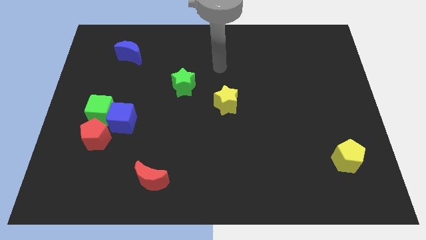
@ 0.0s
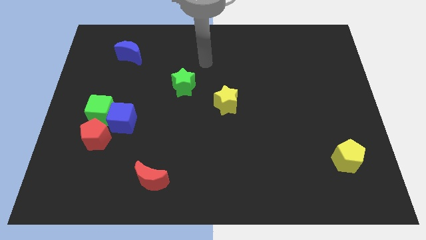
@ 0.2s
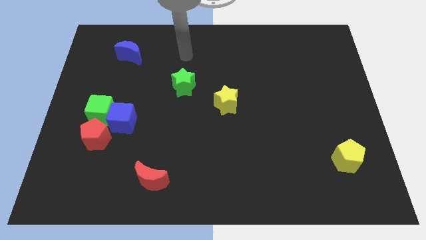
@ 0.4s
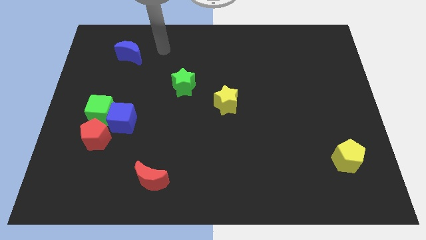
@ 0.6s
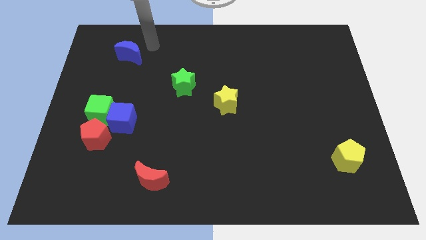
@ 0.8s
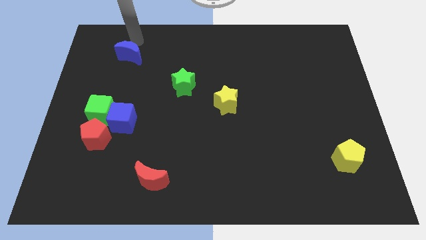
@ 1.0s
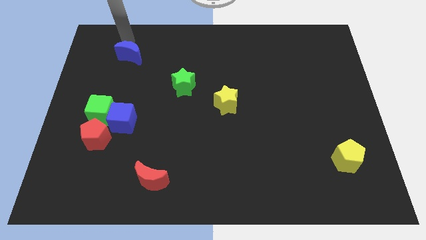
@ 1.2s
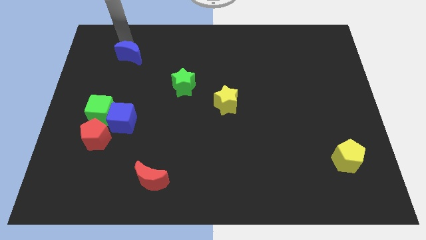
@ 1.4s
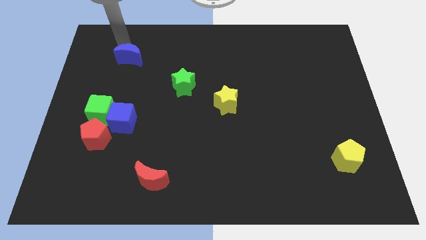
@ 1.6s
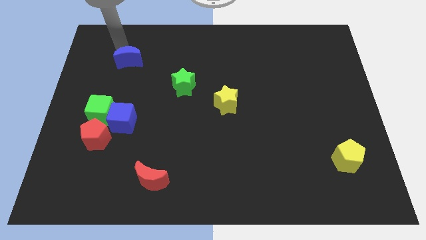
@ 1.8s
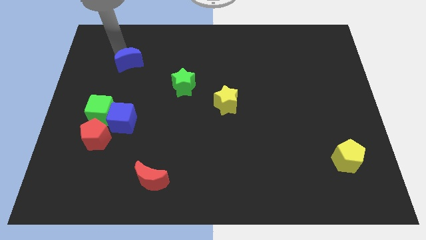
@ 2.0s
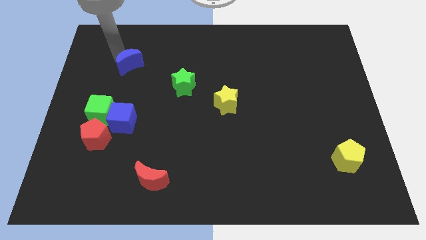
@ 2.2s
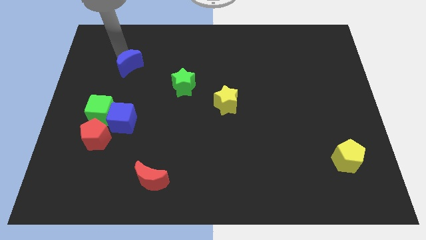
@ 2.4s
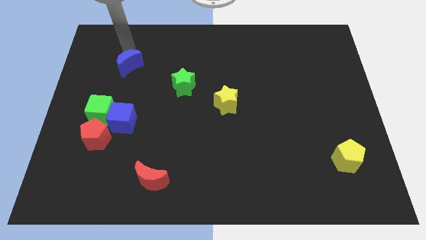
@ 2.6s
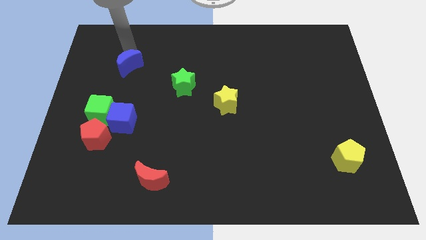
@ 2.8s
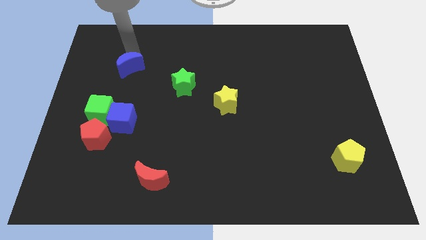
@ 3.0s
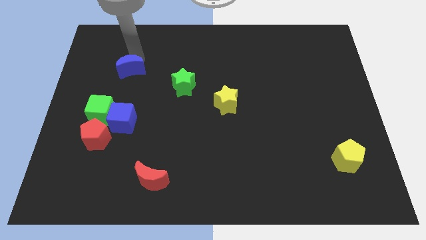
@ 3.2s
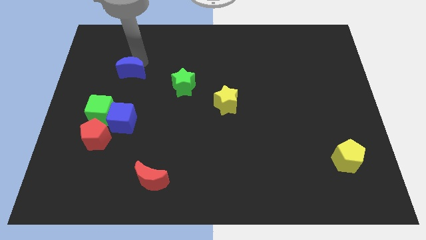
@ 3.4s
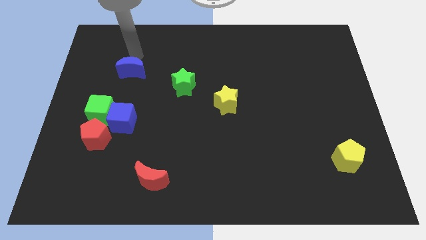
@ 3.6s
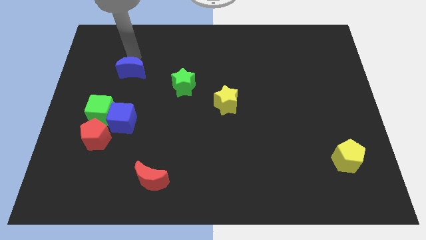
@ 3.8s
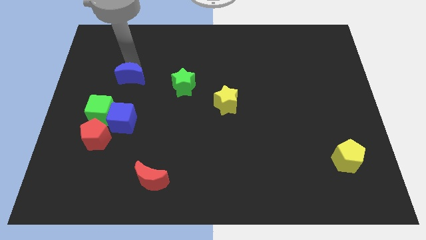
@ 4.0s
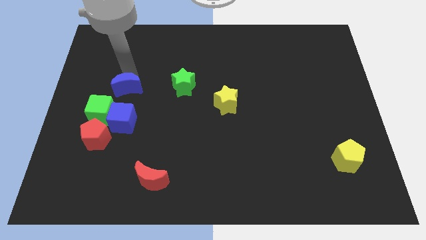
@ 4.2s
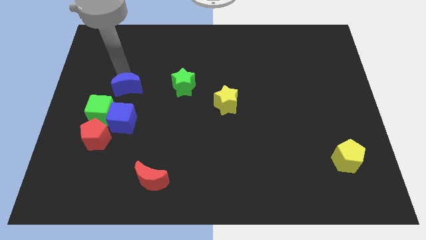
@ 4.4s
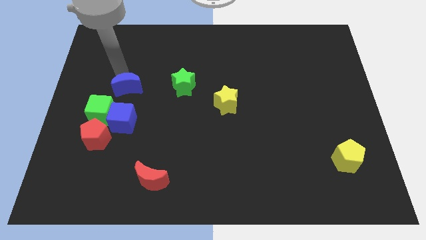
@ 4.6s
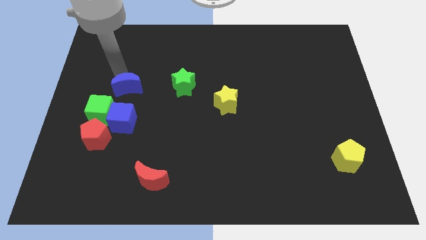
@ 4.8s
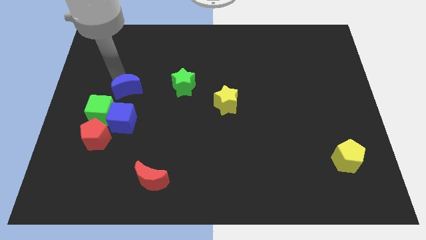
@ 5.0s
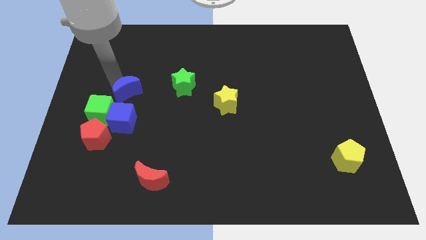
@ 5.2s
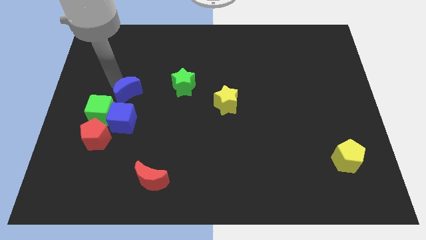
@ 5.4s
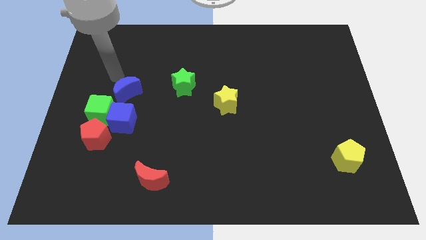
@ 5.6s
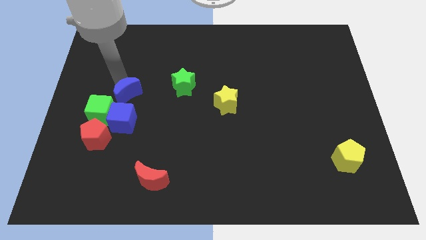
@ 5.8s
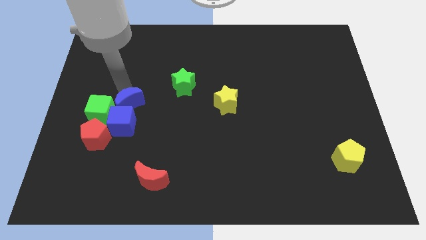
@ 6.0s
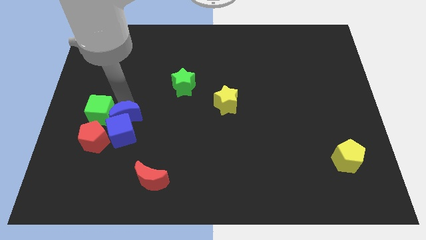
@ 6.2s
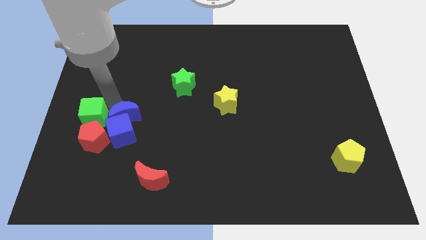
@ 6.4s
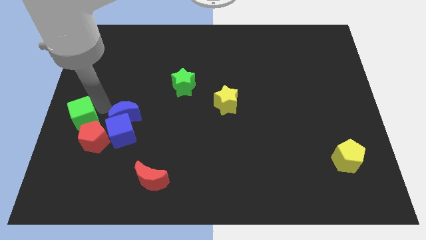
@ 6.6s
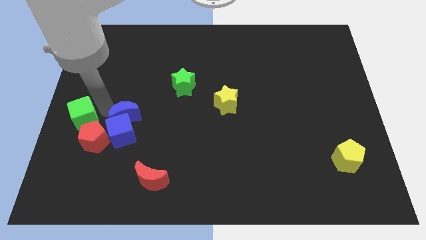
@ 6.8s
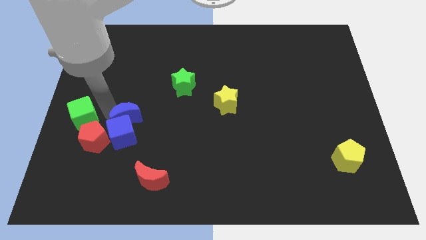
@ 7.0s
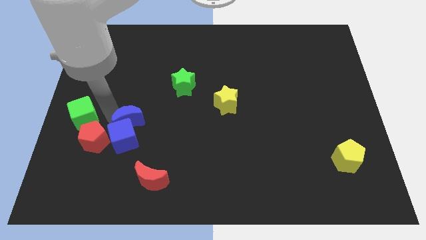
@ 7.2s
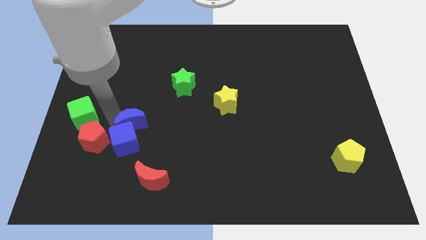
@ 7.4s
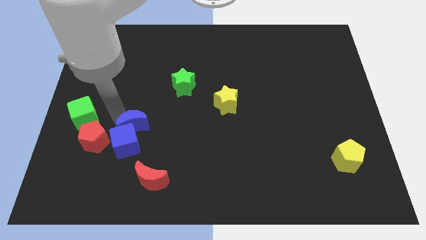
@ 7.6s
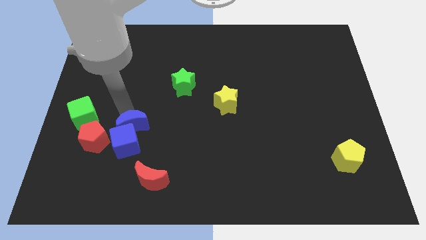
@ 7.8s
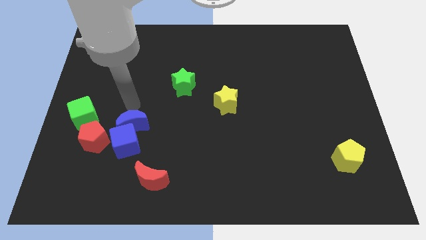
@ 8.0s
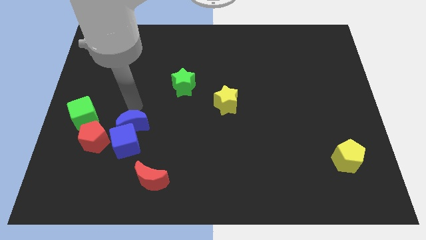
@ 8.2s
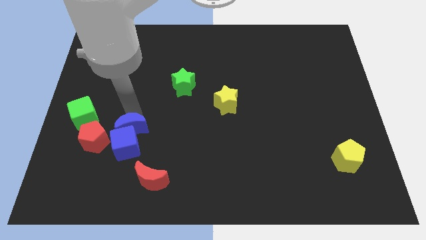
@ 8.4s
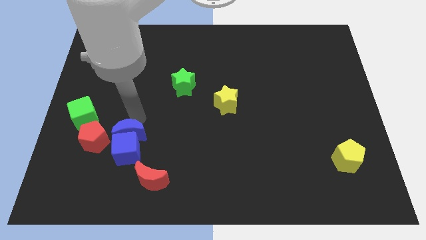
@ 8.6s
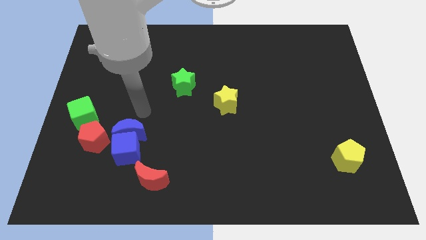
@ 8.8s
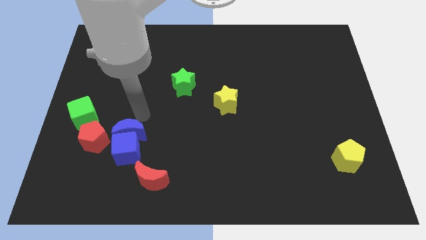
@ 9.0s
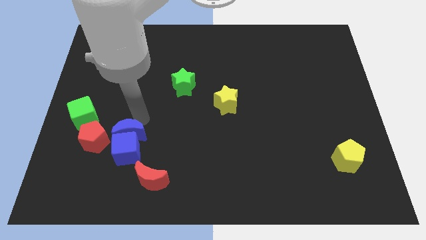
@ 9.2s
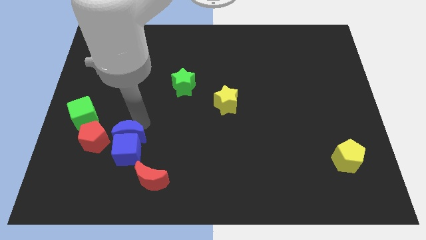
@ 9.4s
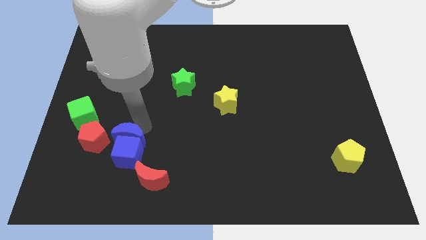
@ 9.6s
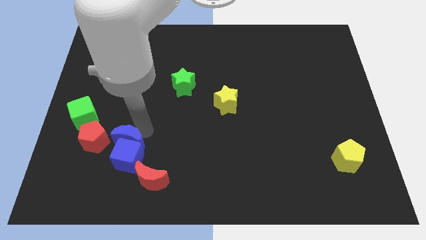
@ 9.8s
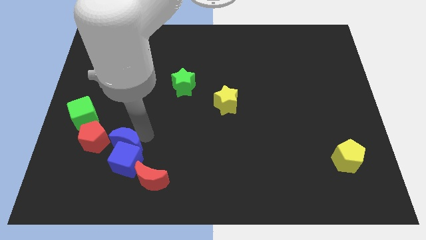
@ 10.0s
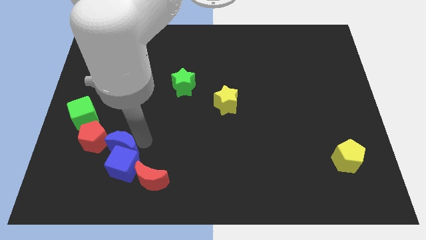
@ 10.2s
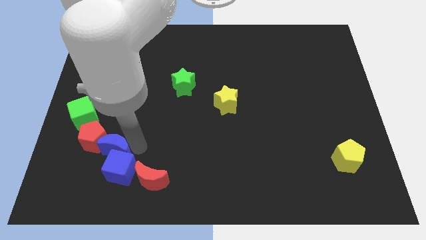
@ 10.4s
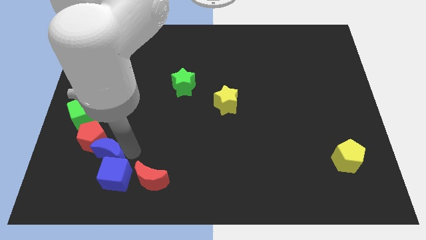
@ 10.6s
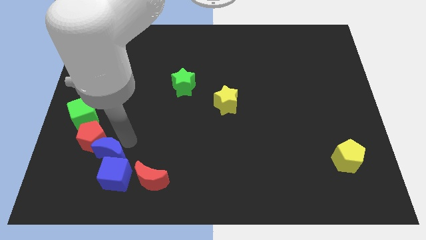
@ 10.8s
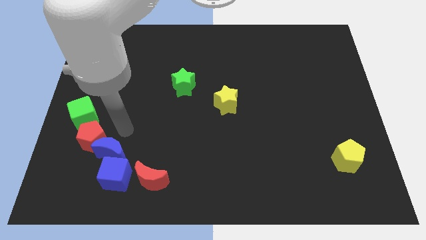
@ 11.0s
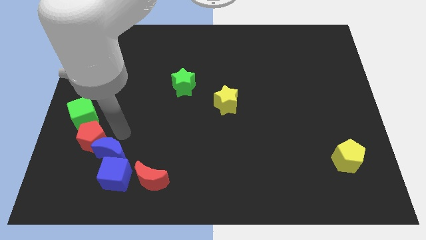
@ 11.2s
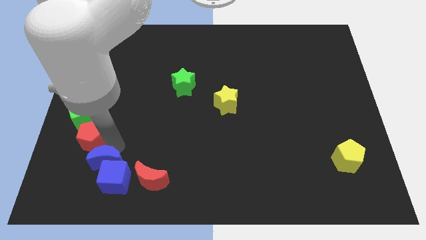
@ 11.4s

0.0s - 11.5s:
slide the blue moon just left of the red moon

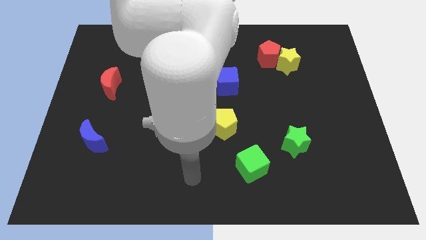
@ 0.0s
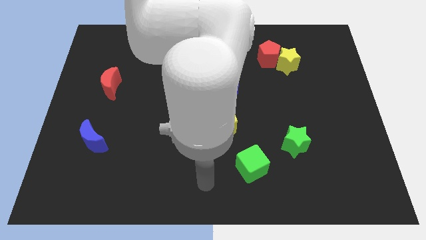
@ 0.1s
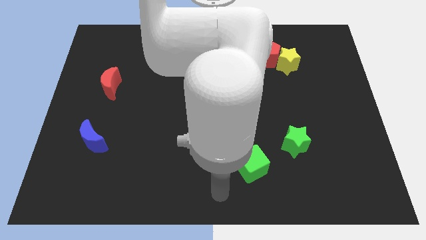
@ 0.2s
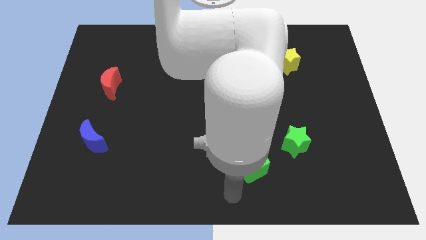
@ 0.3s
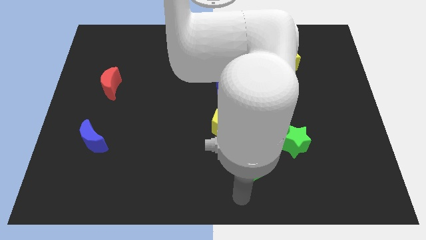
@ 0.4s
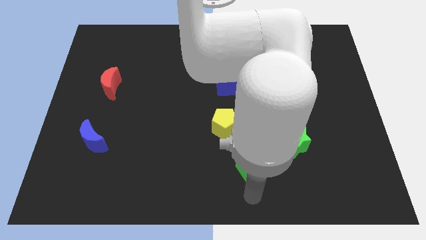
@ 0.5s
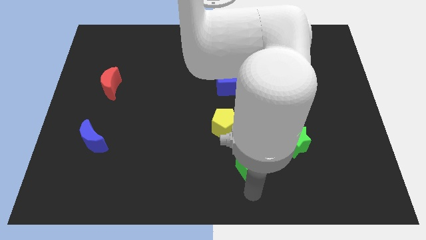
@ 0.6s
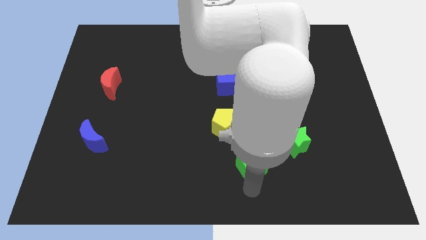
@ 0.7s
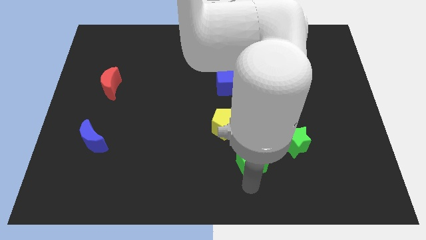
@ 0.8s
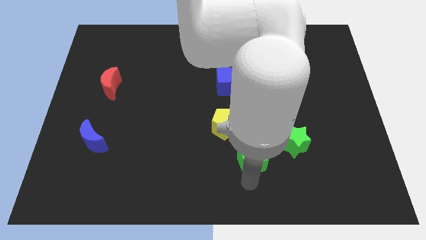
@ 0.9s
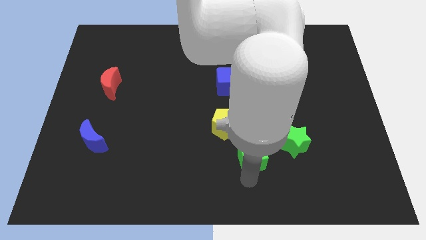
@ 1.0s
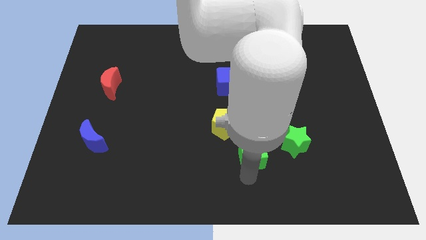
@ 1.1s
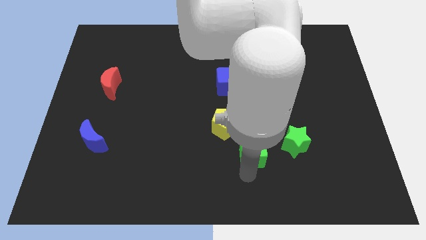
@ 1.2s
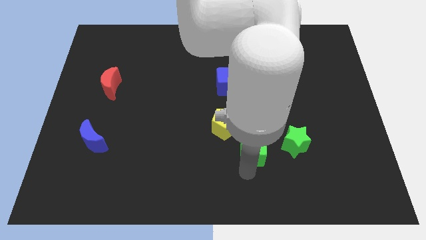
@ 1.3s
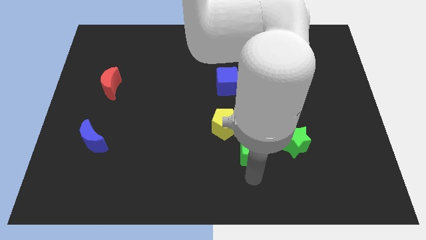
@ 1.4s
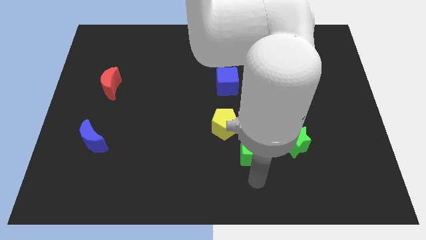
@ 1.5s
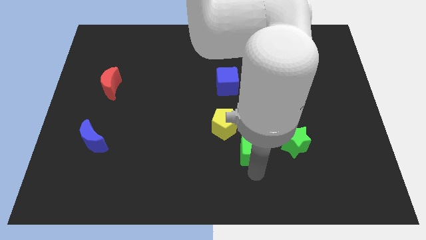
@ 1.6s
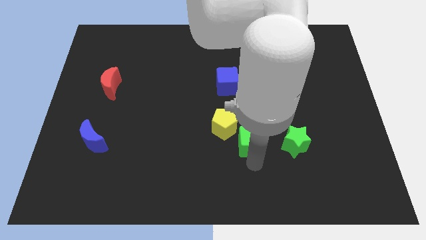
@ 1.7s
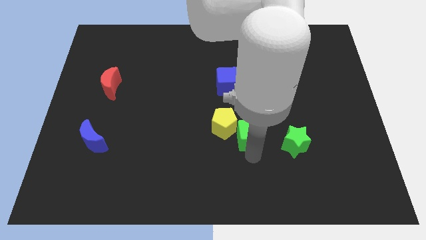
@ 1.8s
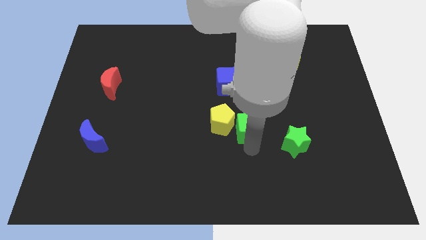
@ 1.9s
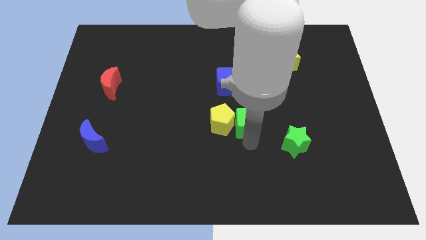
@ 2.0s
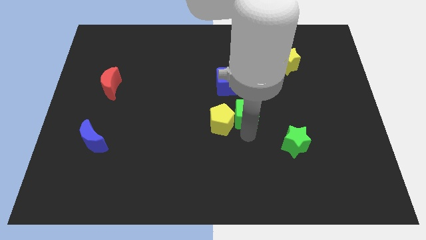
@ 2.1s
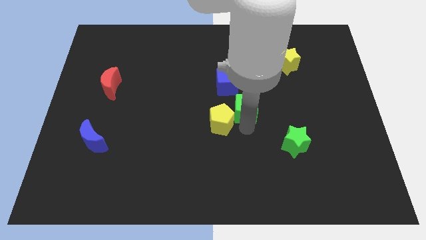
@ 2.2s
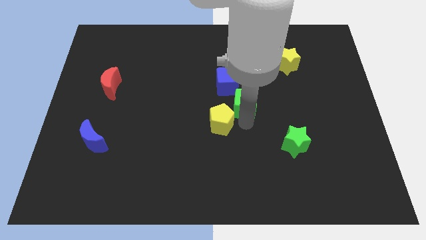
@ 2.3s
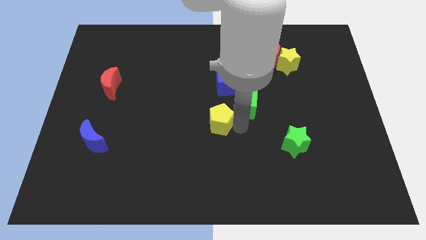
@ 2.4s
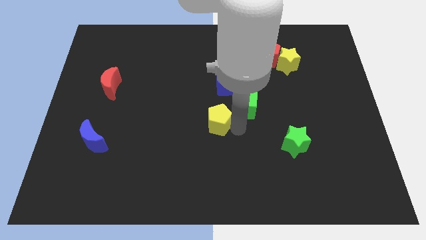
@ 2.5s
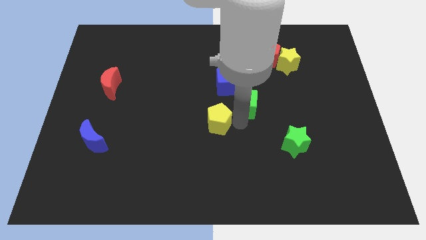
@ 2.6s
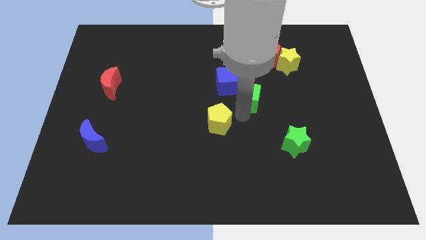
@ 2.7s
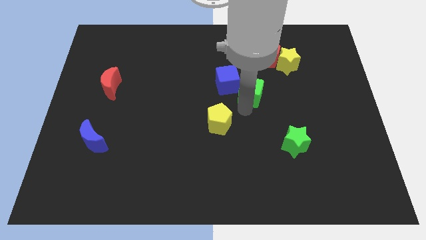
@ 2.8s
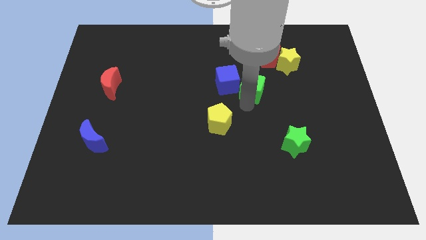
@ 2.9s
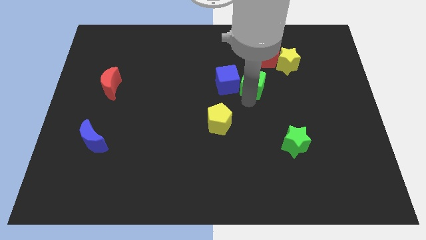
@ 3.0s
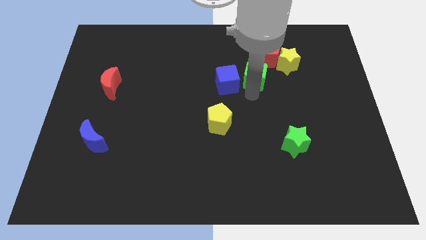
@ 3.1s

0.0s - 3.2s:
move the green cube to the left side of the yellow star
